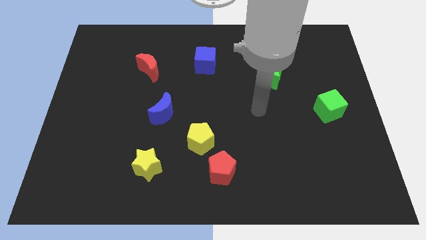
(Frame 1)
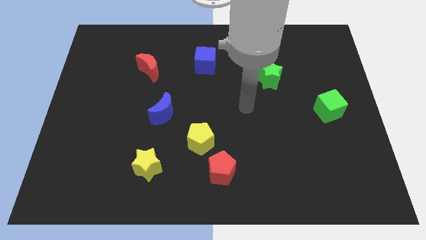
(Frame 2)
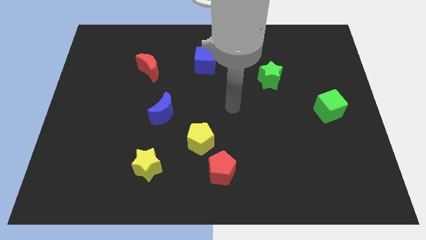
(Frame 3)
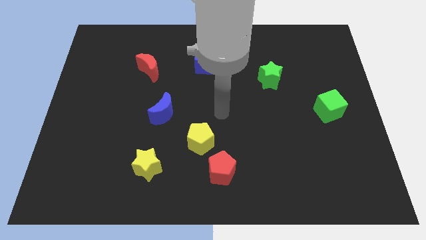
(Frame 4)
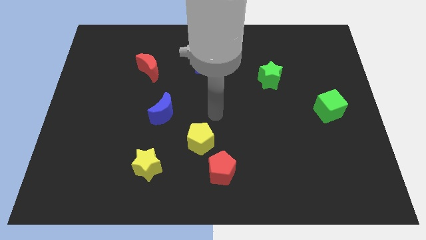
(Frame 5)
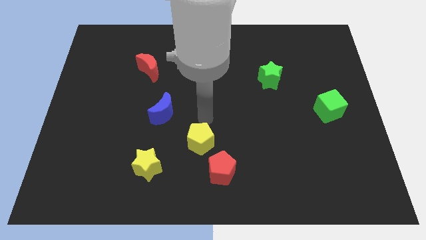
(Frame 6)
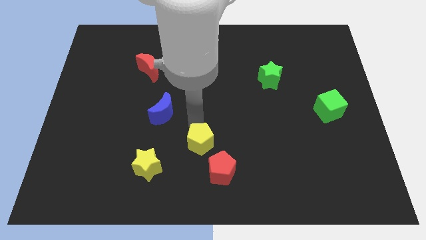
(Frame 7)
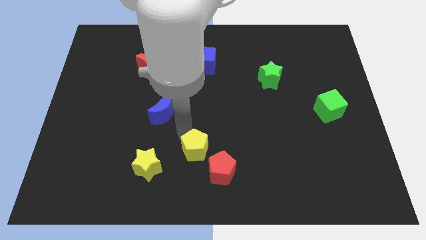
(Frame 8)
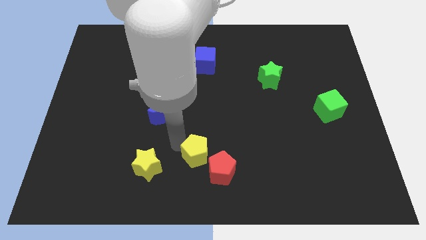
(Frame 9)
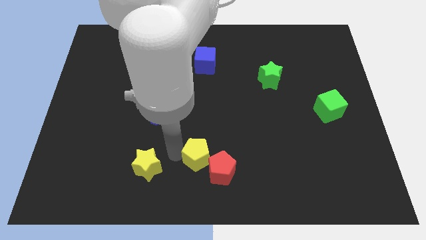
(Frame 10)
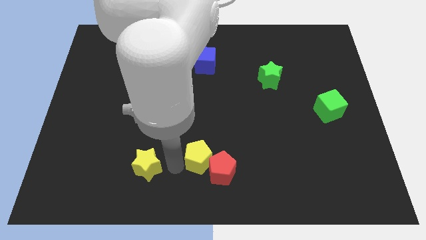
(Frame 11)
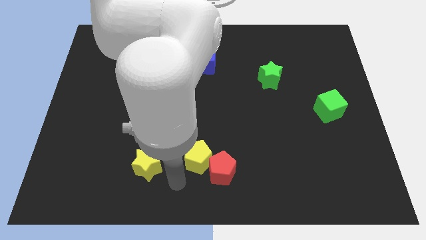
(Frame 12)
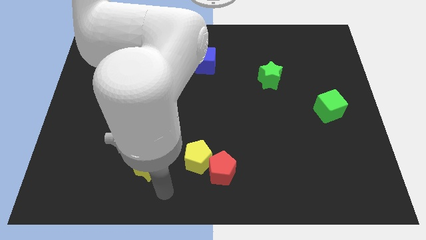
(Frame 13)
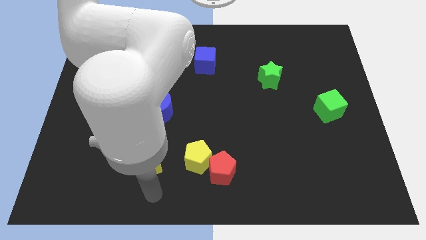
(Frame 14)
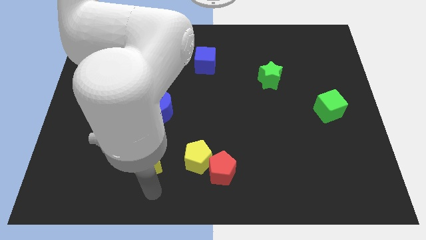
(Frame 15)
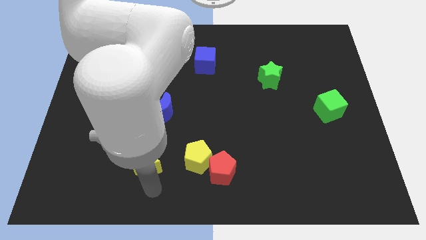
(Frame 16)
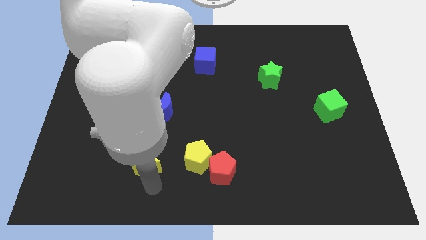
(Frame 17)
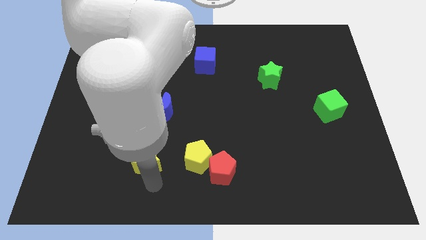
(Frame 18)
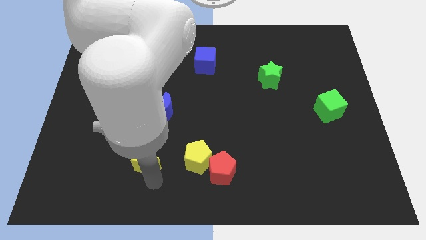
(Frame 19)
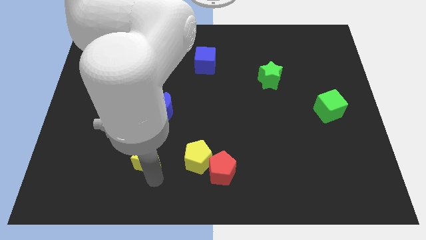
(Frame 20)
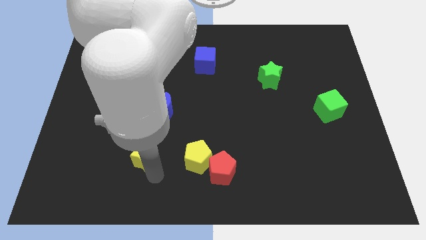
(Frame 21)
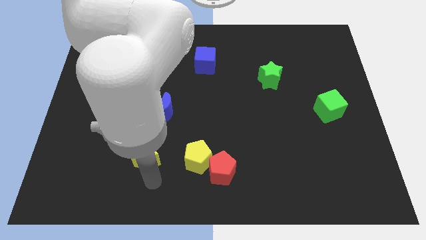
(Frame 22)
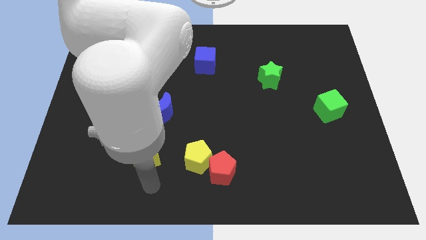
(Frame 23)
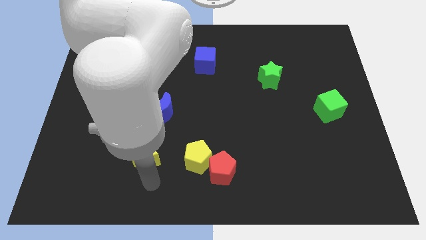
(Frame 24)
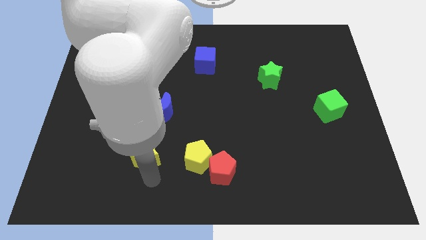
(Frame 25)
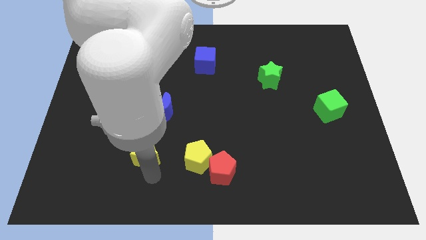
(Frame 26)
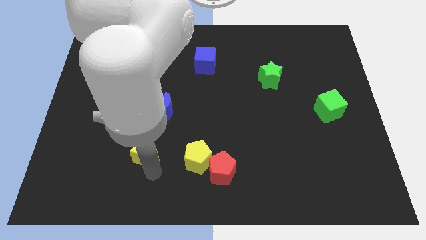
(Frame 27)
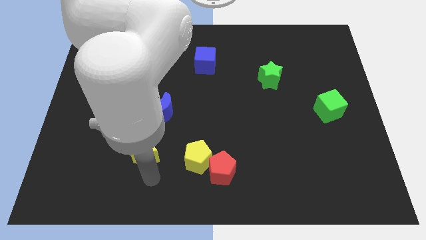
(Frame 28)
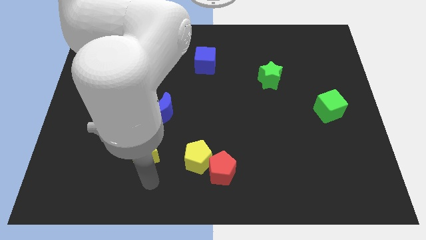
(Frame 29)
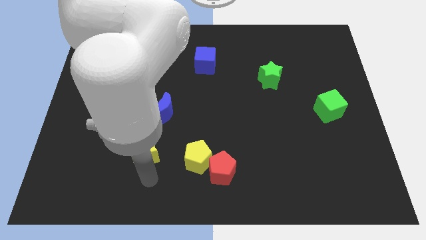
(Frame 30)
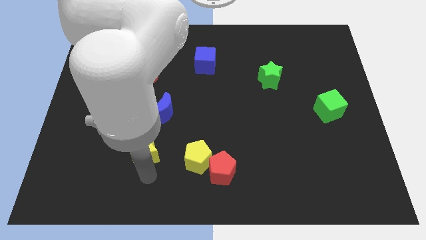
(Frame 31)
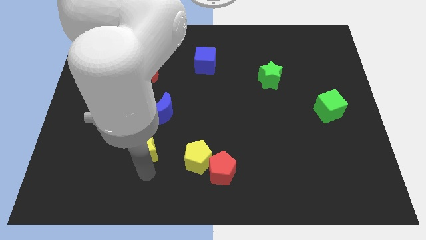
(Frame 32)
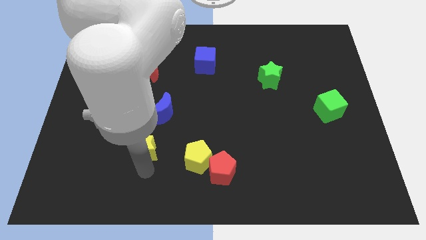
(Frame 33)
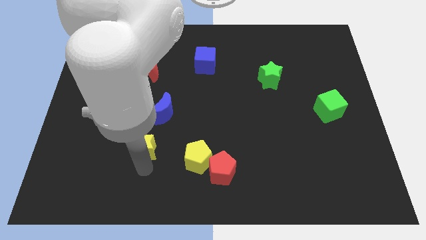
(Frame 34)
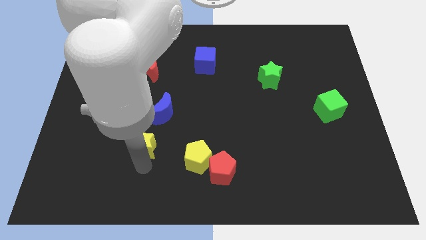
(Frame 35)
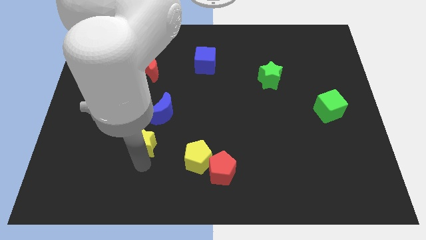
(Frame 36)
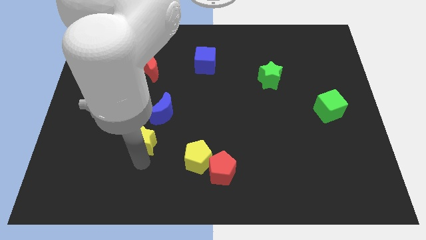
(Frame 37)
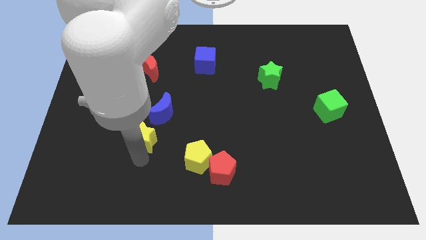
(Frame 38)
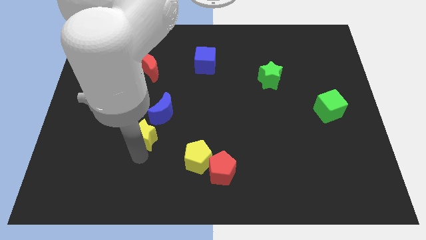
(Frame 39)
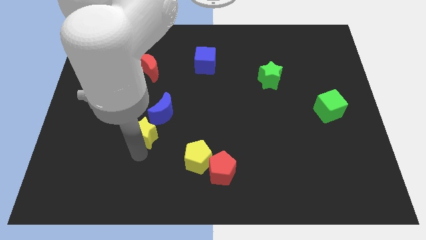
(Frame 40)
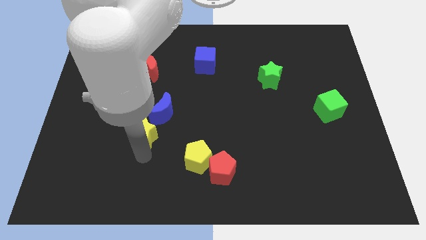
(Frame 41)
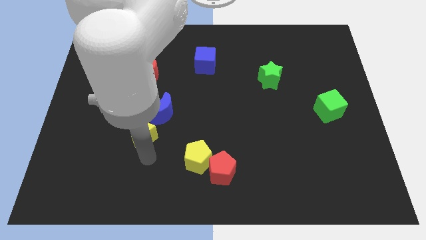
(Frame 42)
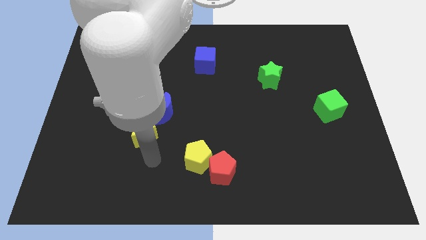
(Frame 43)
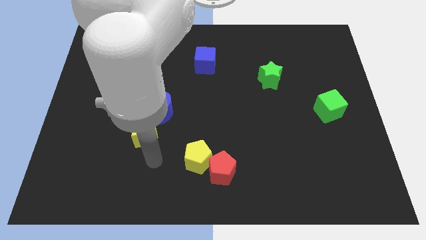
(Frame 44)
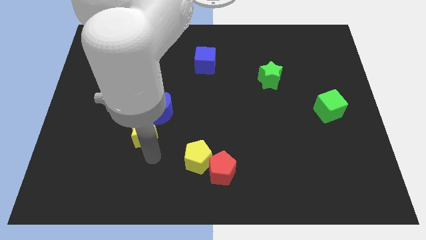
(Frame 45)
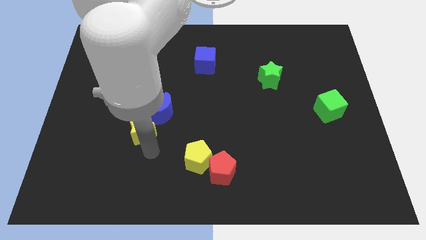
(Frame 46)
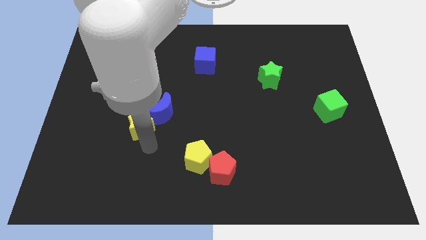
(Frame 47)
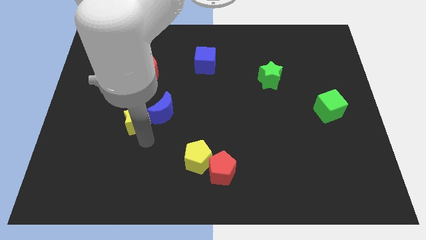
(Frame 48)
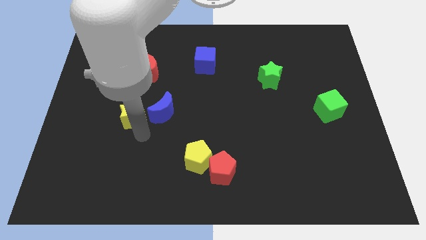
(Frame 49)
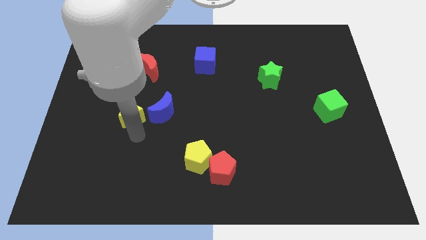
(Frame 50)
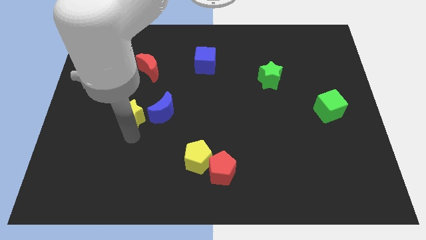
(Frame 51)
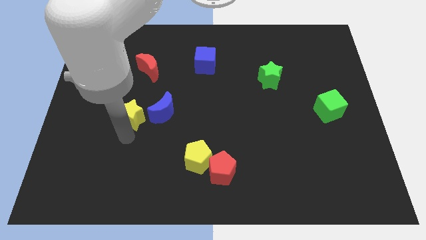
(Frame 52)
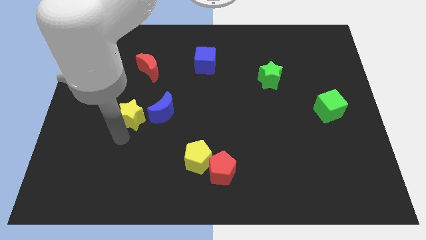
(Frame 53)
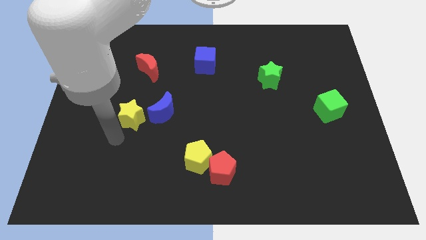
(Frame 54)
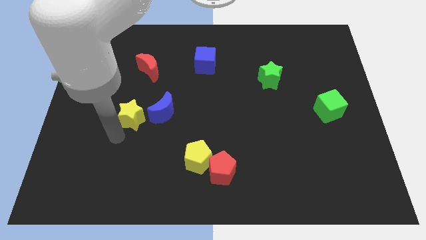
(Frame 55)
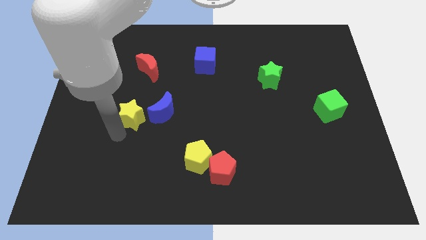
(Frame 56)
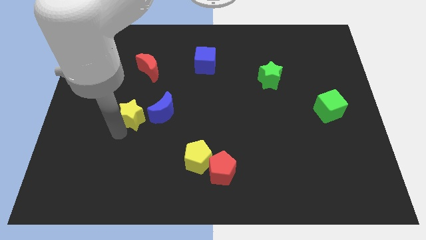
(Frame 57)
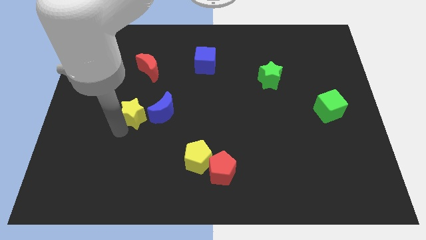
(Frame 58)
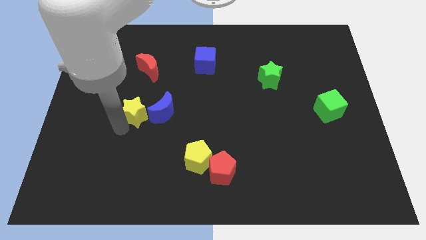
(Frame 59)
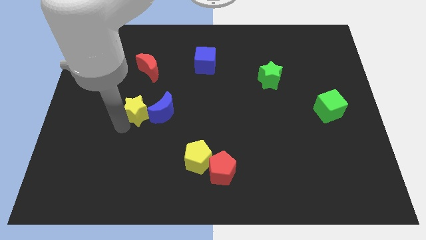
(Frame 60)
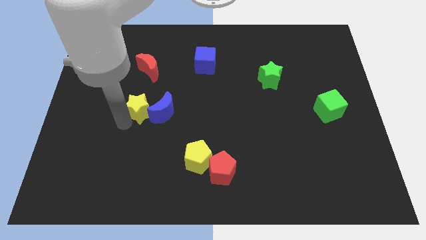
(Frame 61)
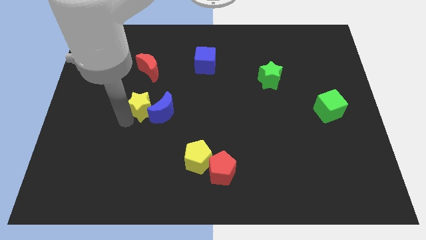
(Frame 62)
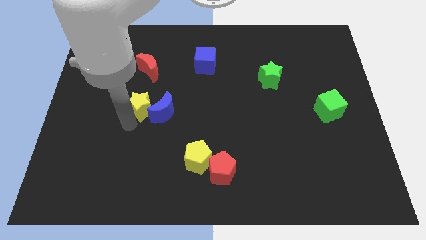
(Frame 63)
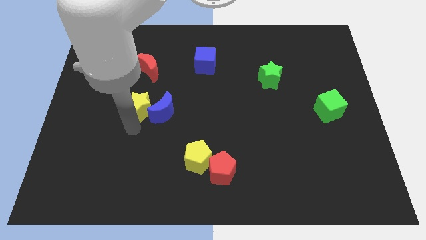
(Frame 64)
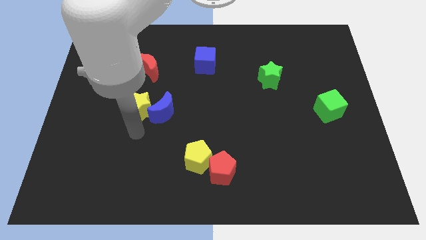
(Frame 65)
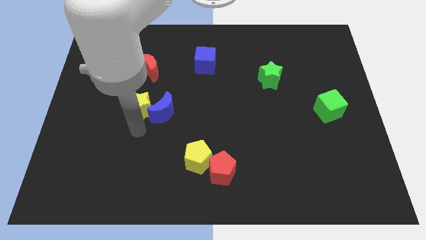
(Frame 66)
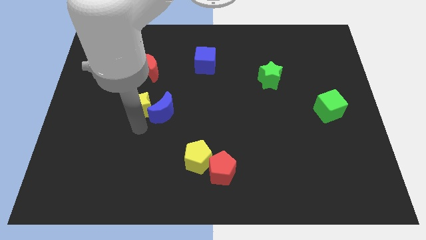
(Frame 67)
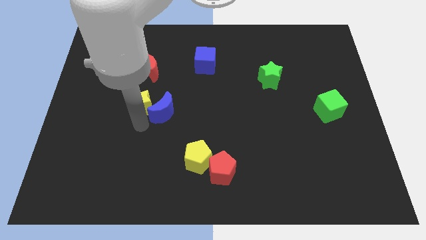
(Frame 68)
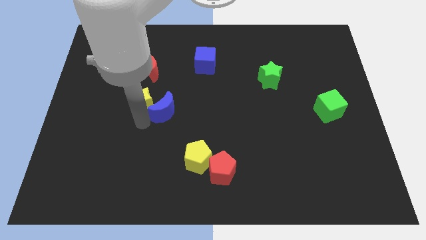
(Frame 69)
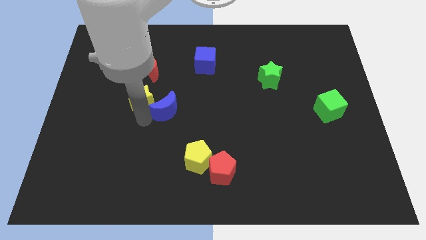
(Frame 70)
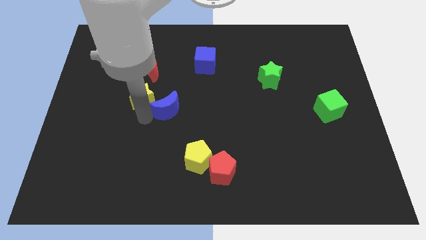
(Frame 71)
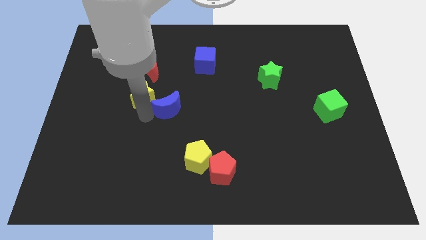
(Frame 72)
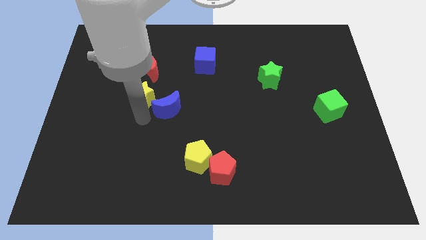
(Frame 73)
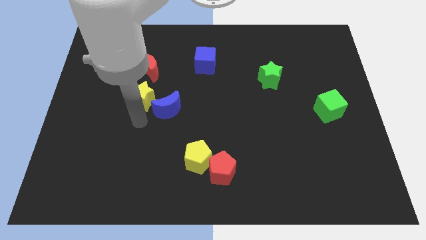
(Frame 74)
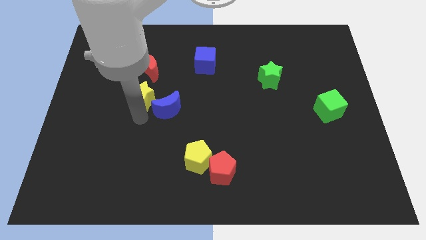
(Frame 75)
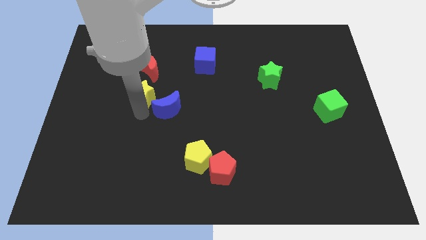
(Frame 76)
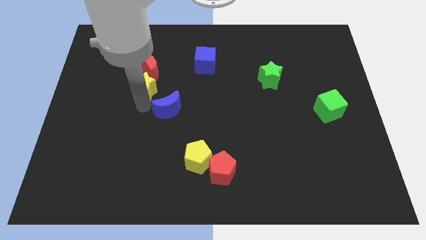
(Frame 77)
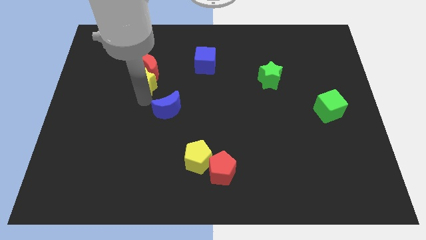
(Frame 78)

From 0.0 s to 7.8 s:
move the yellow star towards the red moon
